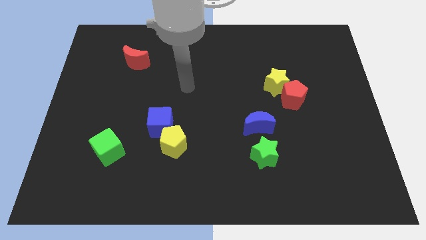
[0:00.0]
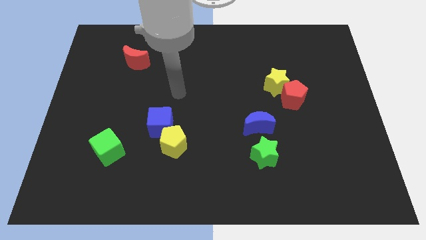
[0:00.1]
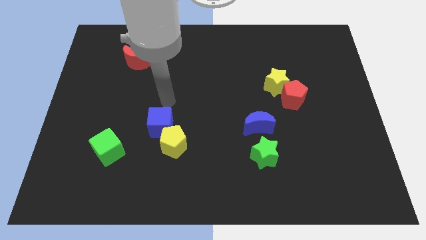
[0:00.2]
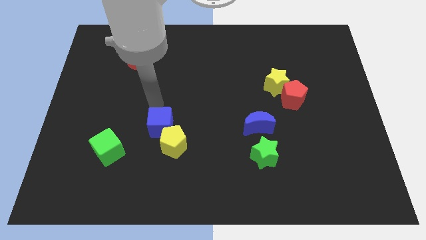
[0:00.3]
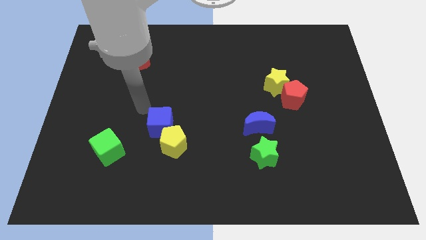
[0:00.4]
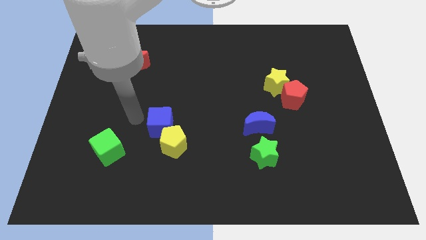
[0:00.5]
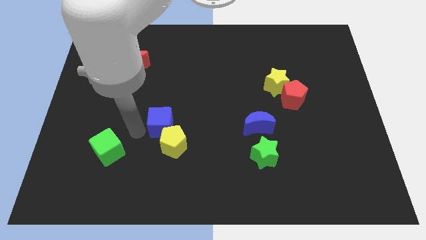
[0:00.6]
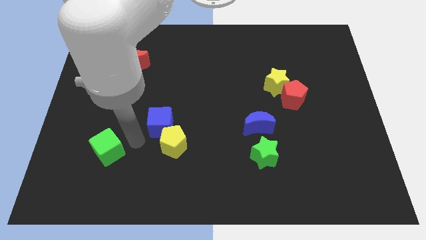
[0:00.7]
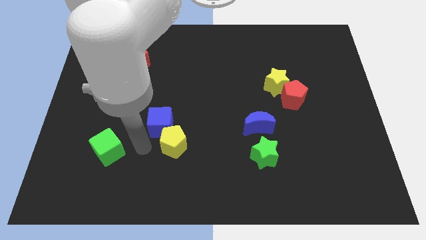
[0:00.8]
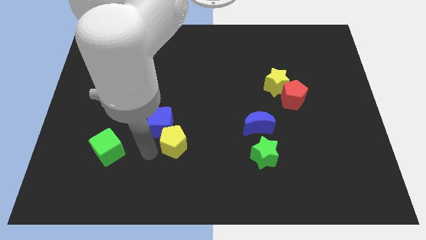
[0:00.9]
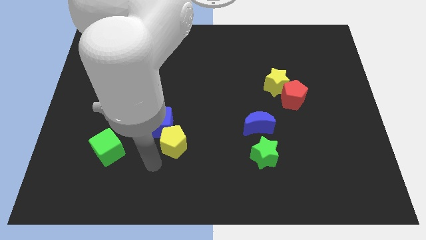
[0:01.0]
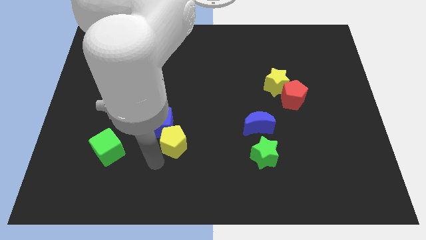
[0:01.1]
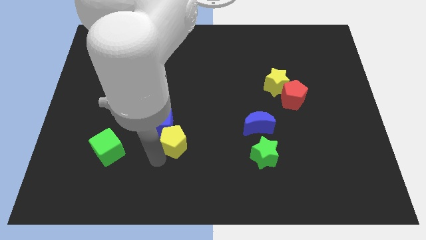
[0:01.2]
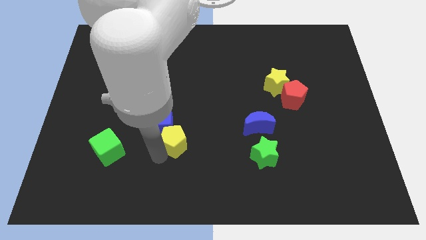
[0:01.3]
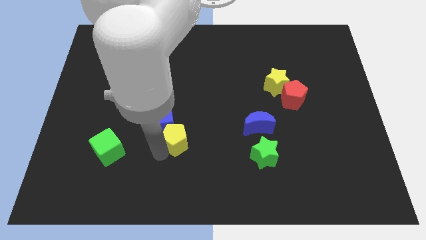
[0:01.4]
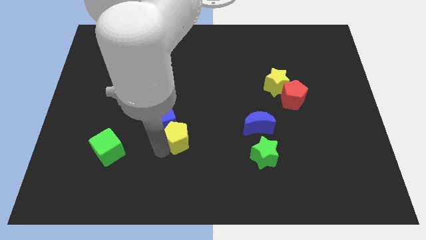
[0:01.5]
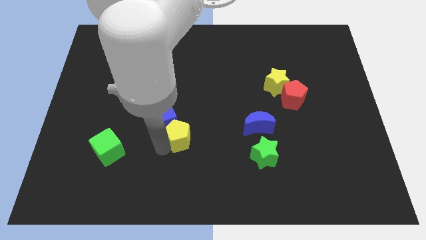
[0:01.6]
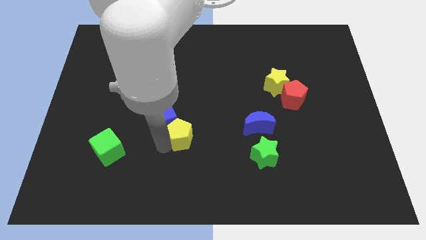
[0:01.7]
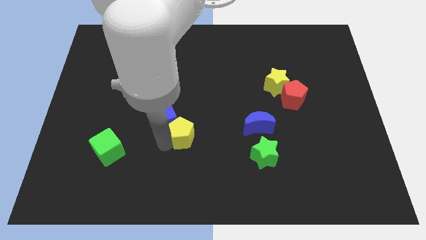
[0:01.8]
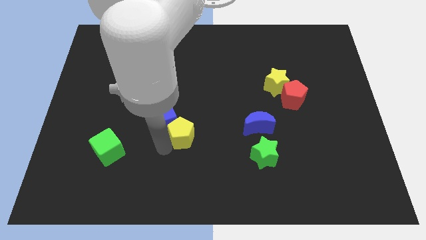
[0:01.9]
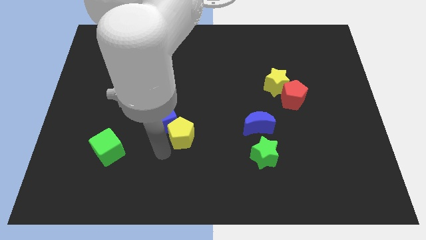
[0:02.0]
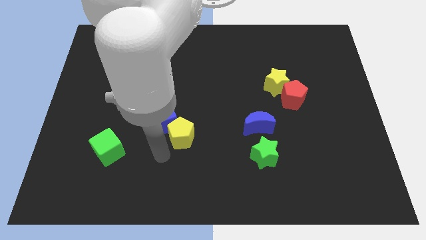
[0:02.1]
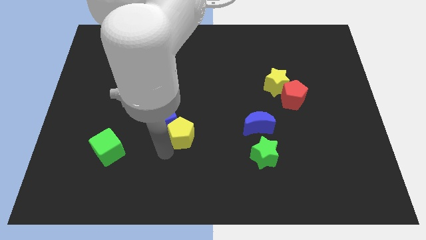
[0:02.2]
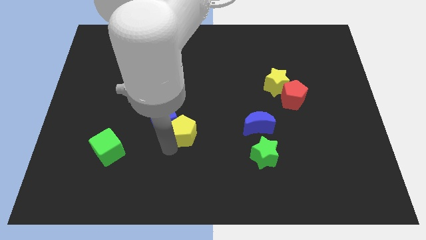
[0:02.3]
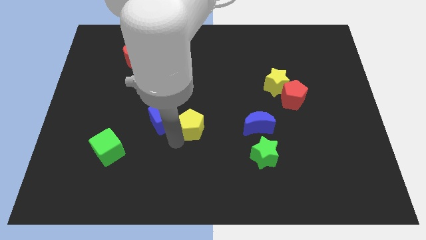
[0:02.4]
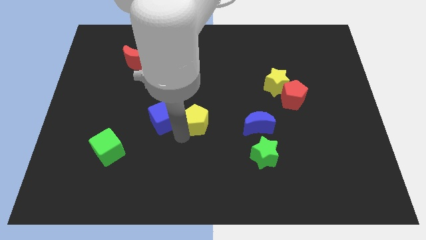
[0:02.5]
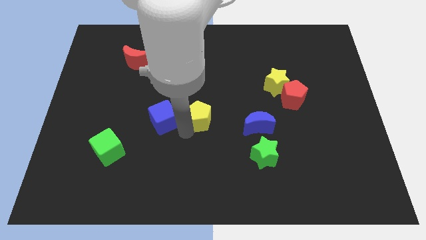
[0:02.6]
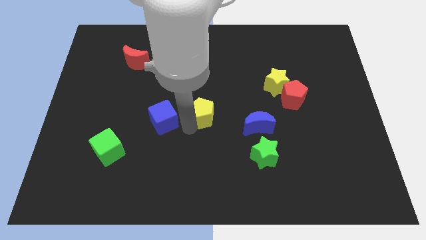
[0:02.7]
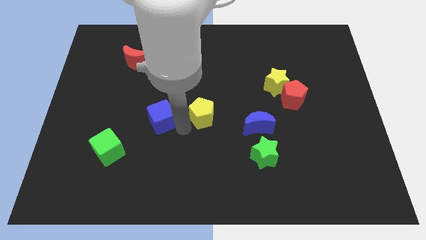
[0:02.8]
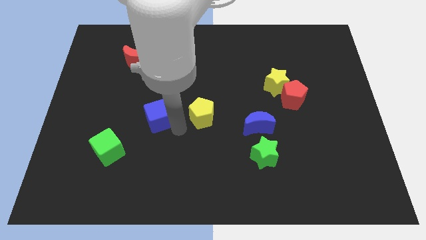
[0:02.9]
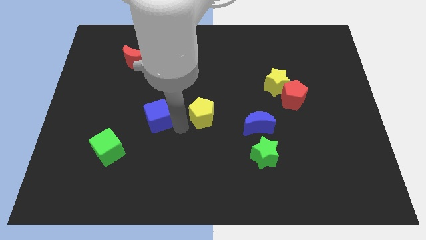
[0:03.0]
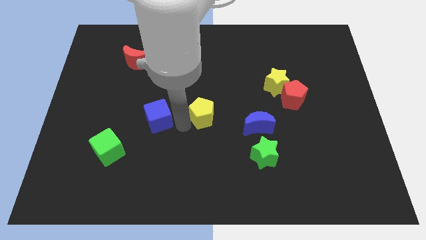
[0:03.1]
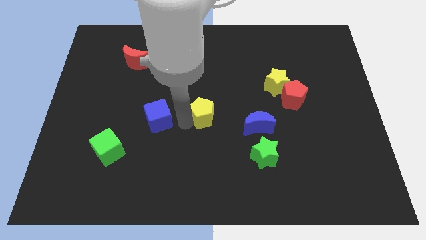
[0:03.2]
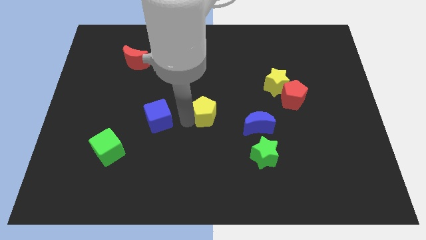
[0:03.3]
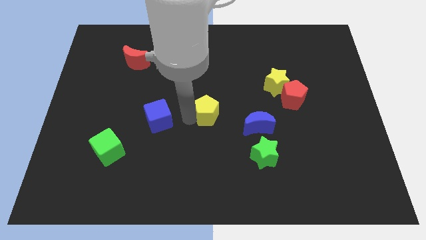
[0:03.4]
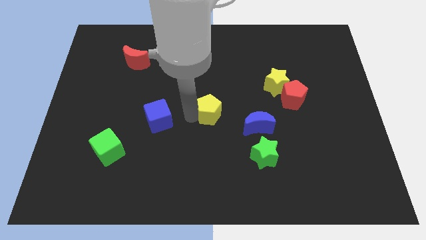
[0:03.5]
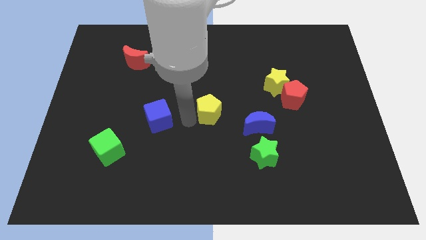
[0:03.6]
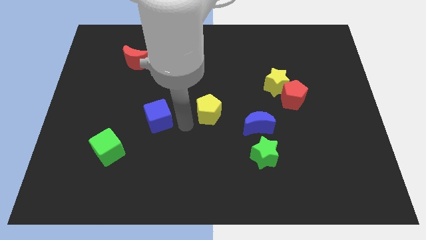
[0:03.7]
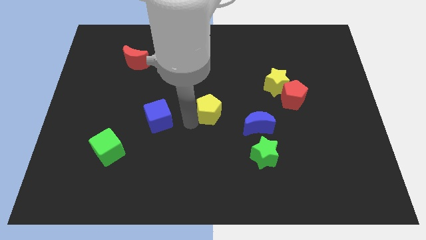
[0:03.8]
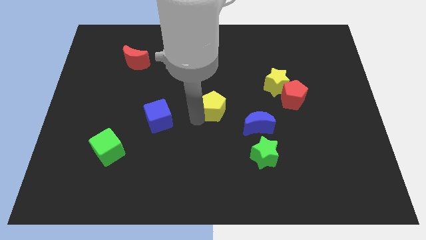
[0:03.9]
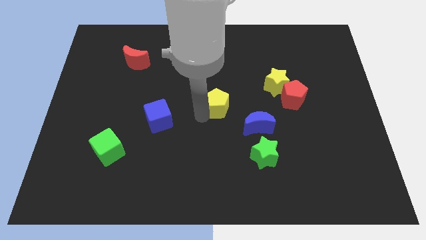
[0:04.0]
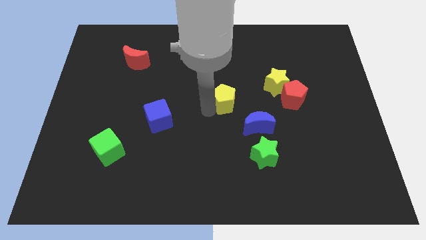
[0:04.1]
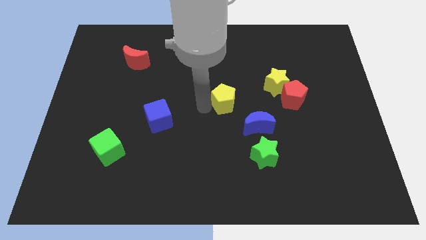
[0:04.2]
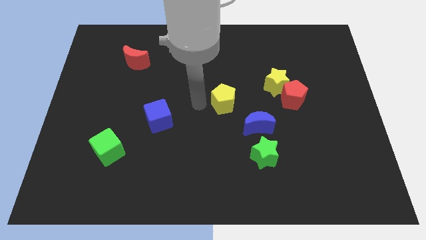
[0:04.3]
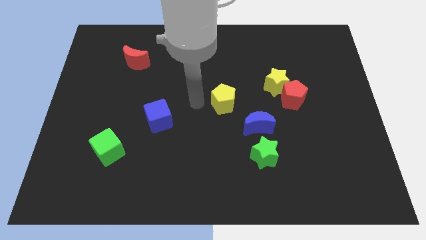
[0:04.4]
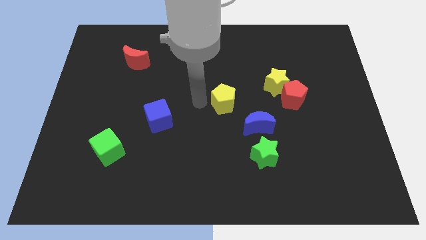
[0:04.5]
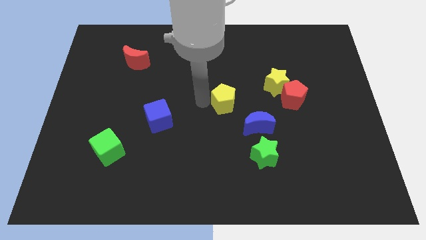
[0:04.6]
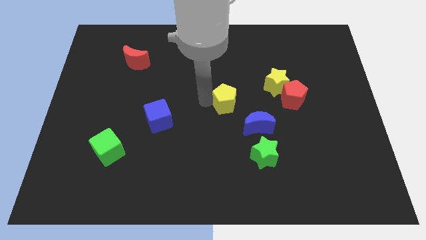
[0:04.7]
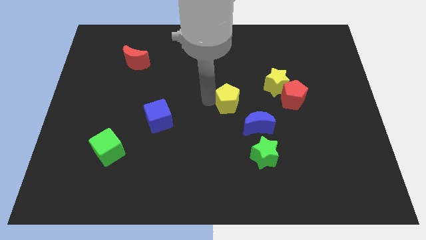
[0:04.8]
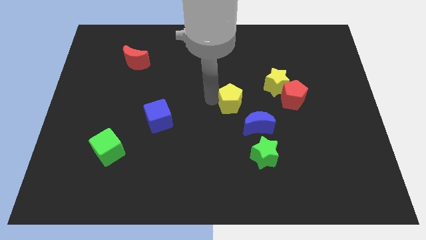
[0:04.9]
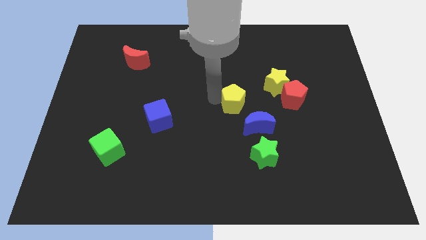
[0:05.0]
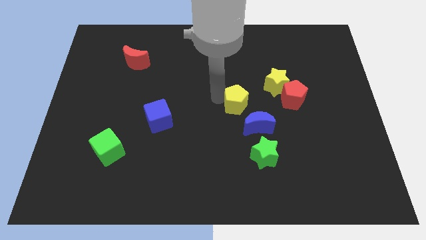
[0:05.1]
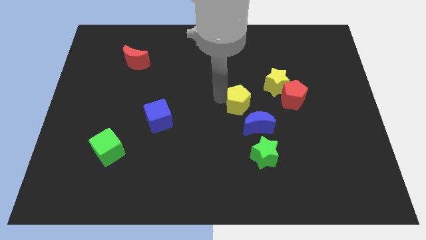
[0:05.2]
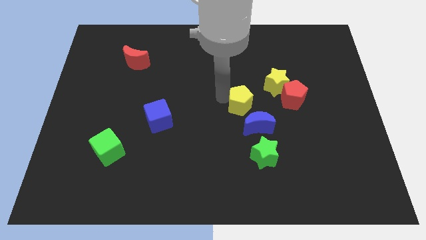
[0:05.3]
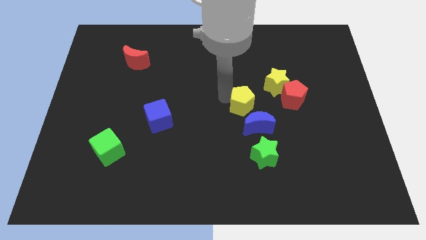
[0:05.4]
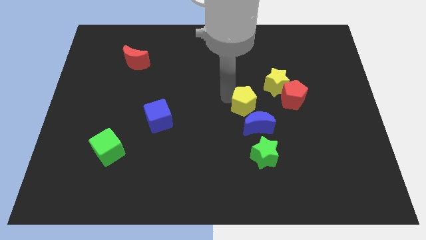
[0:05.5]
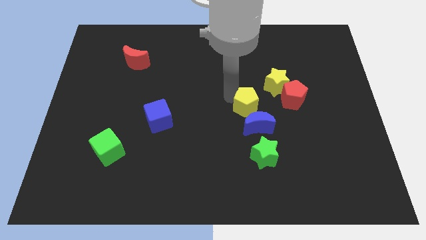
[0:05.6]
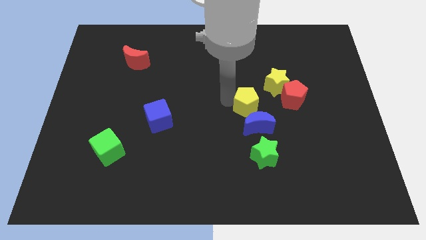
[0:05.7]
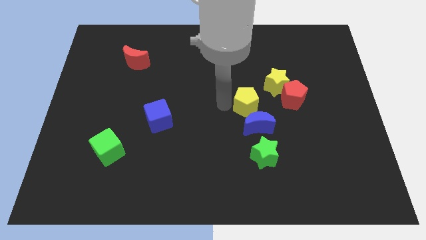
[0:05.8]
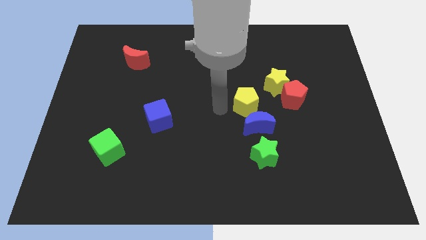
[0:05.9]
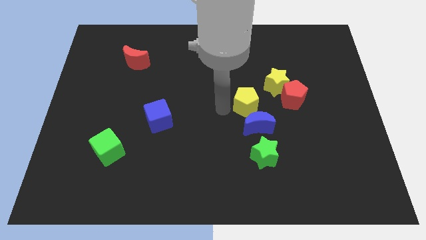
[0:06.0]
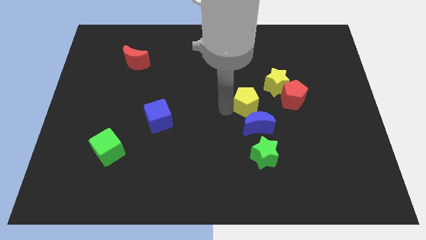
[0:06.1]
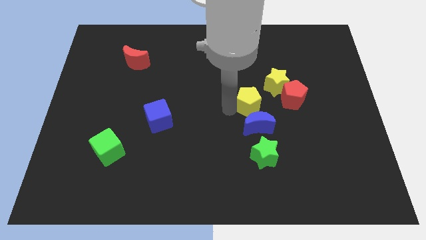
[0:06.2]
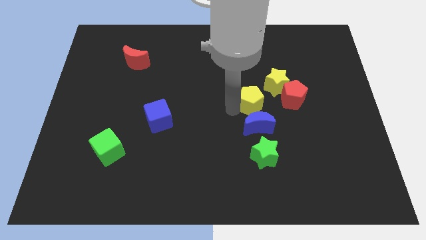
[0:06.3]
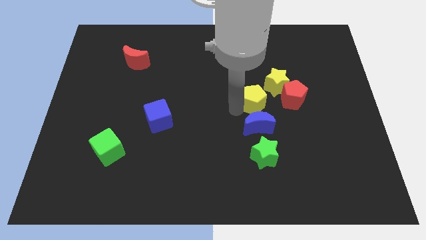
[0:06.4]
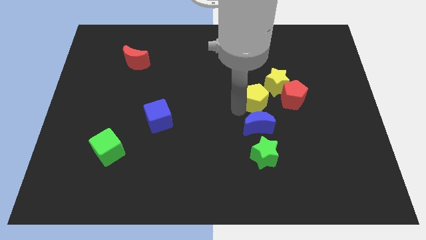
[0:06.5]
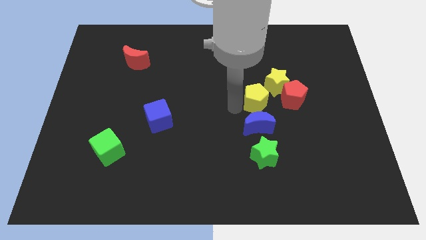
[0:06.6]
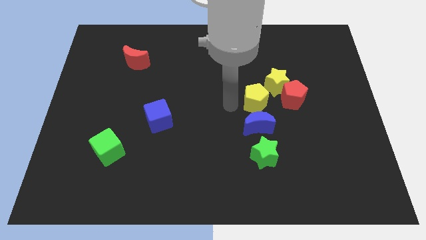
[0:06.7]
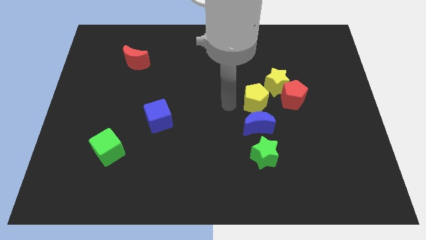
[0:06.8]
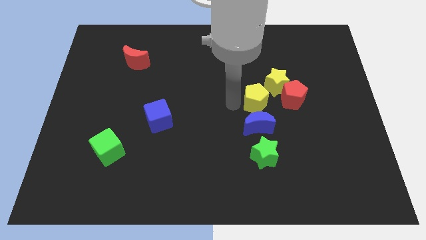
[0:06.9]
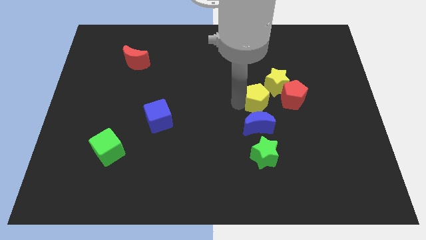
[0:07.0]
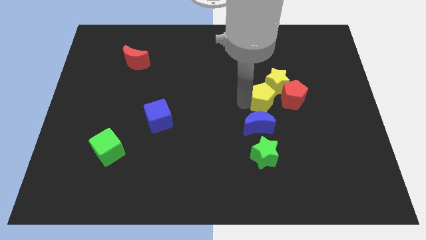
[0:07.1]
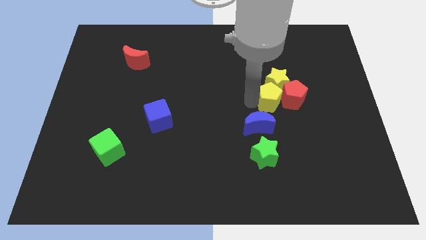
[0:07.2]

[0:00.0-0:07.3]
put the yellow pentagon to the red pentagon
